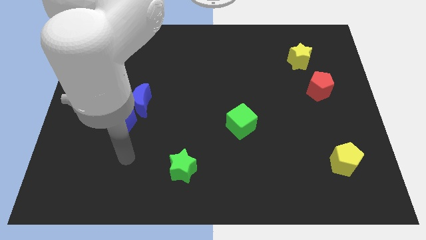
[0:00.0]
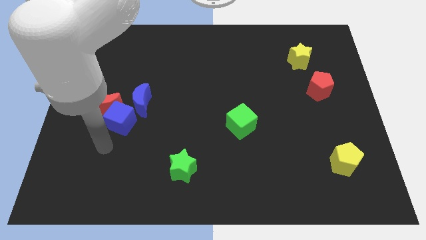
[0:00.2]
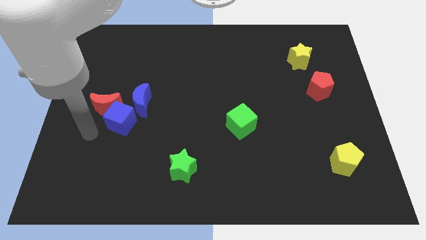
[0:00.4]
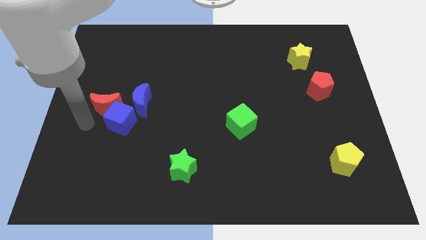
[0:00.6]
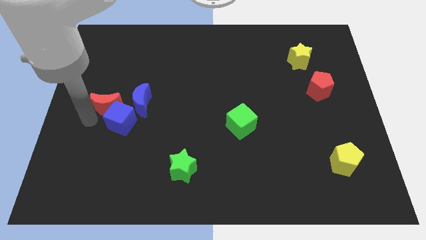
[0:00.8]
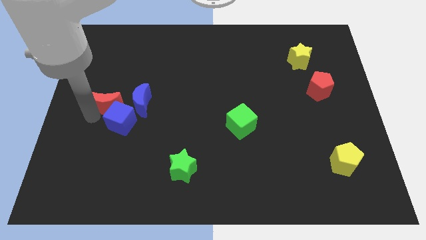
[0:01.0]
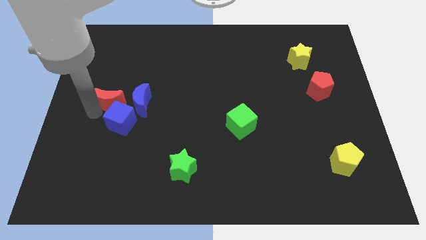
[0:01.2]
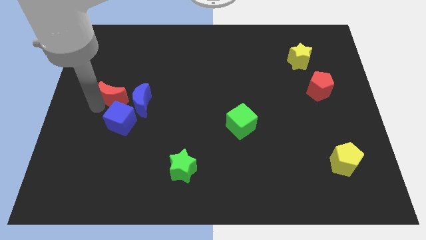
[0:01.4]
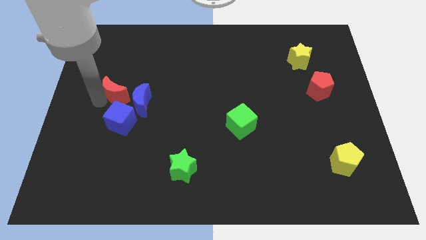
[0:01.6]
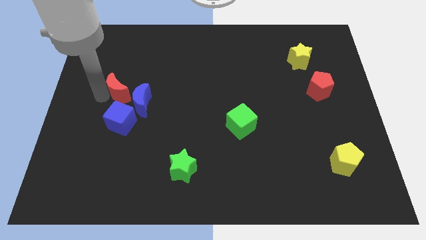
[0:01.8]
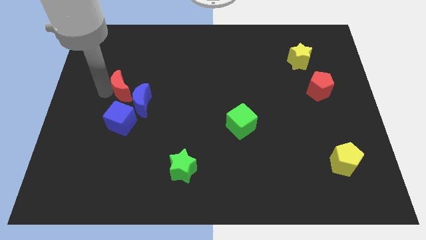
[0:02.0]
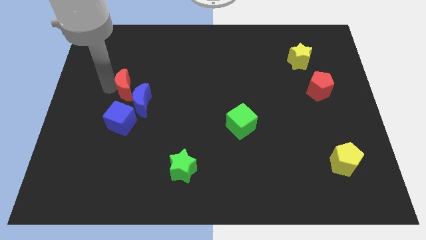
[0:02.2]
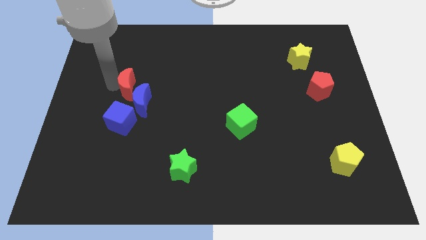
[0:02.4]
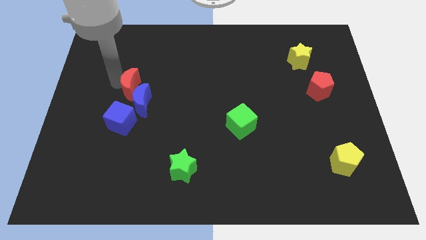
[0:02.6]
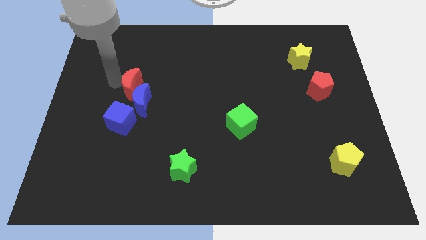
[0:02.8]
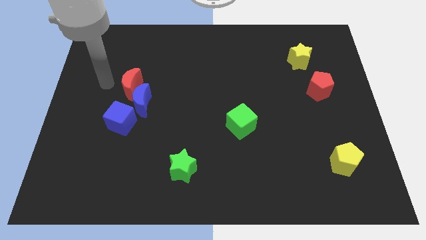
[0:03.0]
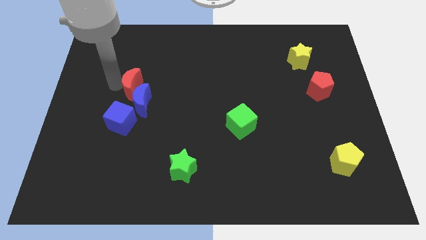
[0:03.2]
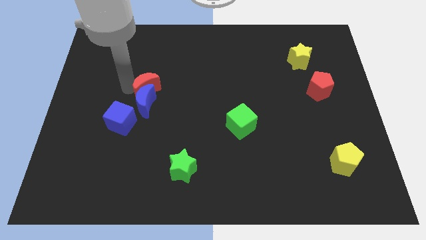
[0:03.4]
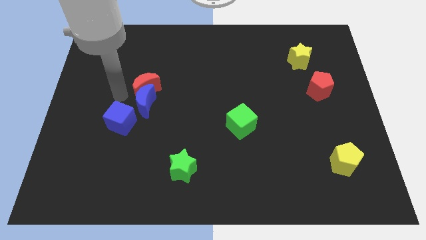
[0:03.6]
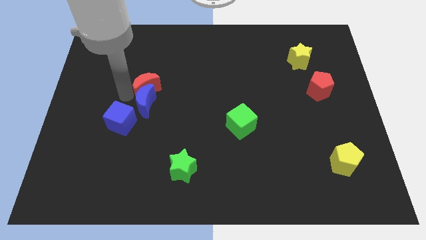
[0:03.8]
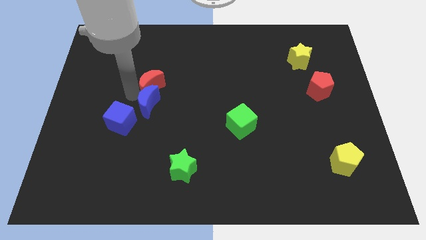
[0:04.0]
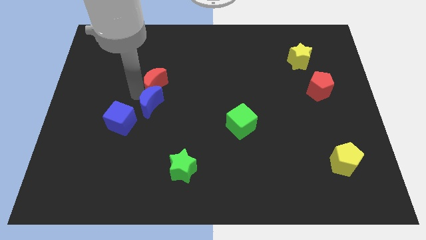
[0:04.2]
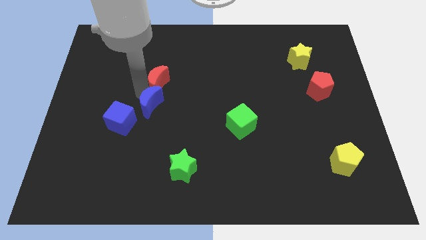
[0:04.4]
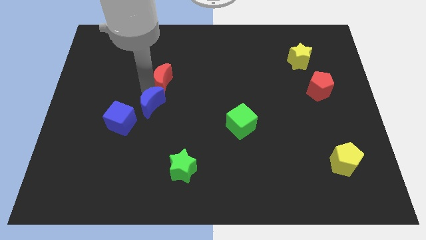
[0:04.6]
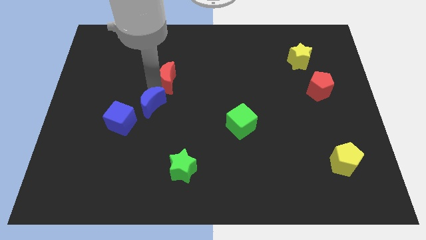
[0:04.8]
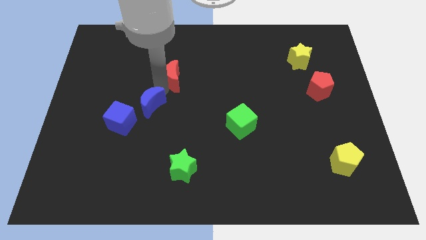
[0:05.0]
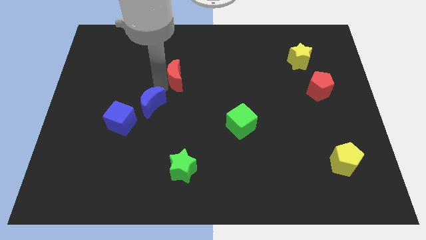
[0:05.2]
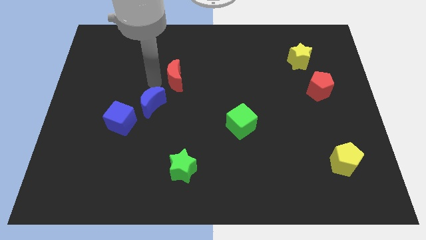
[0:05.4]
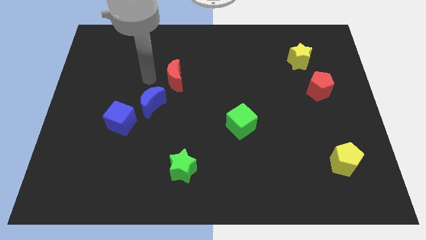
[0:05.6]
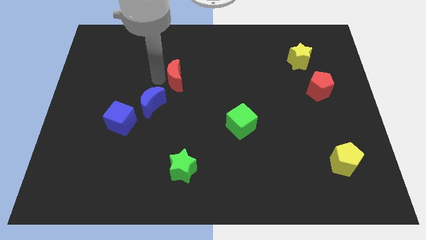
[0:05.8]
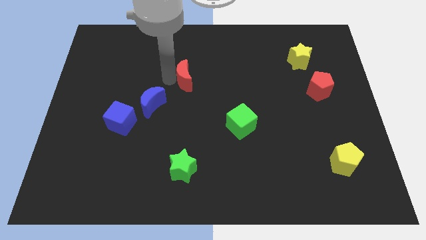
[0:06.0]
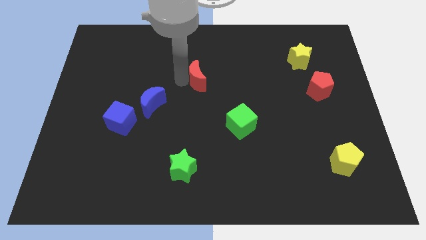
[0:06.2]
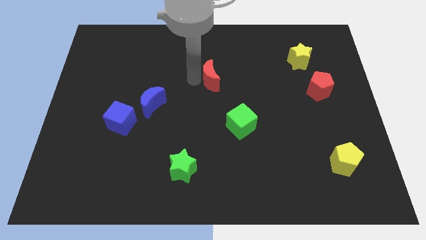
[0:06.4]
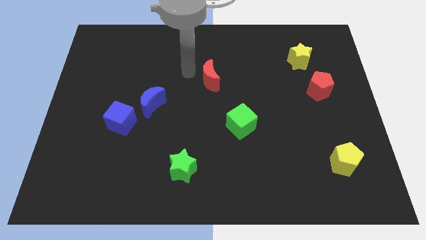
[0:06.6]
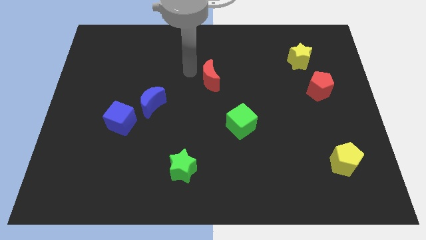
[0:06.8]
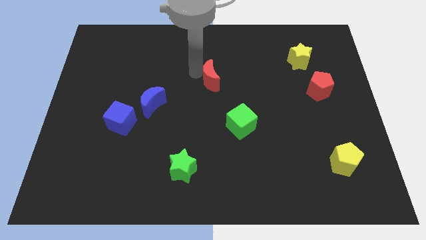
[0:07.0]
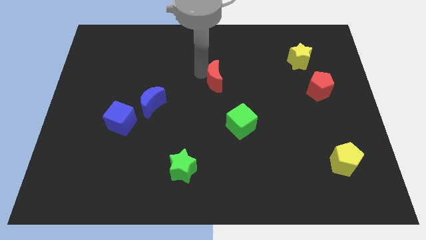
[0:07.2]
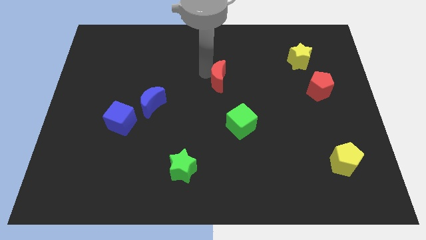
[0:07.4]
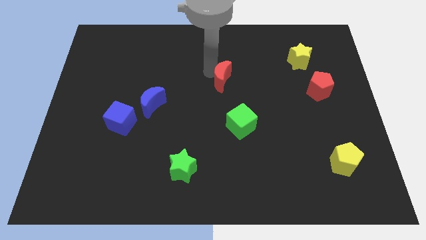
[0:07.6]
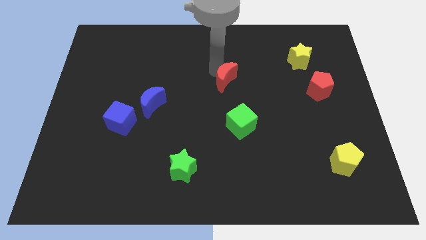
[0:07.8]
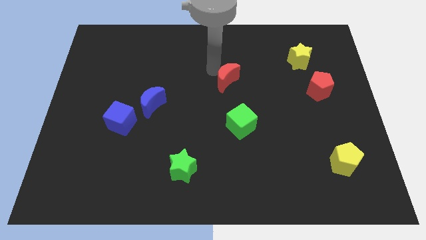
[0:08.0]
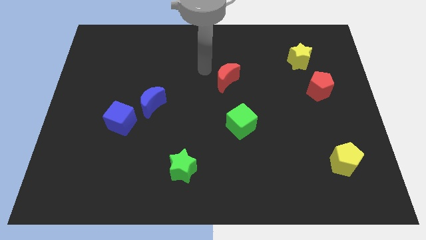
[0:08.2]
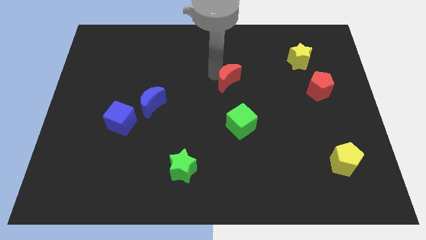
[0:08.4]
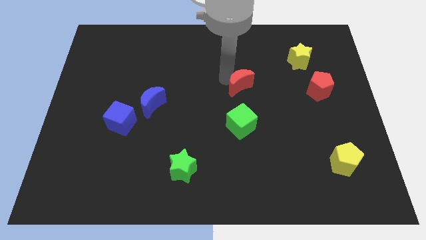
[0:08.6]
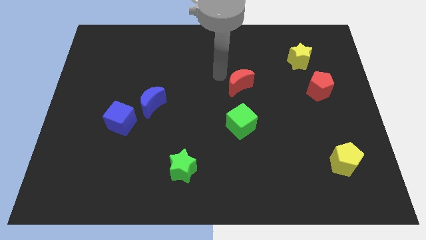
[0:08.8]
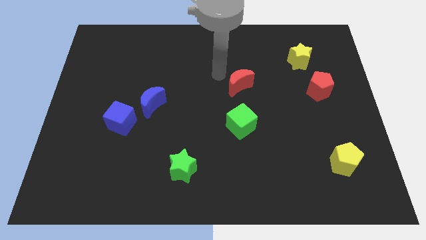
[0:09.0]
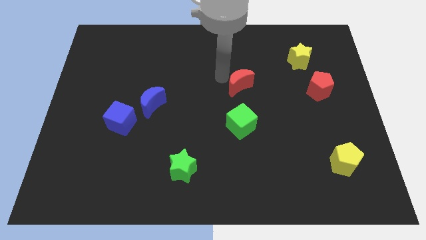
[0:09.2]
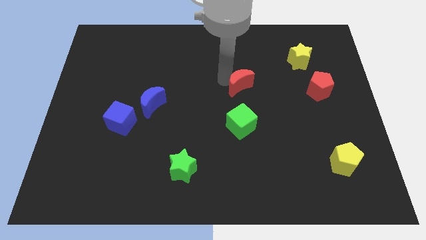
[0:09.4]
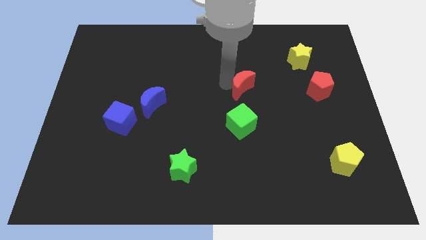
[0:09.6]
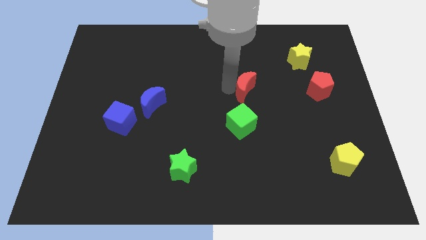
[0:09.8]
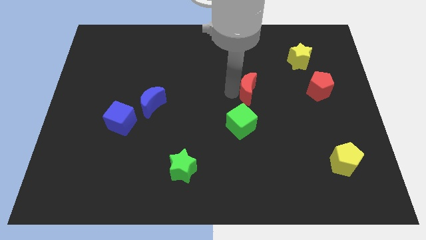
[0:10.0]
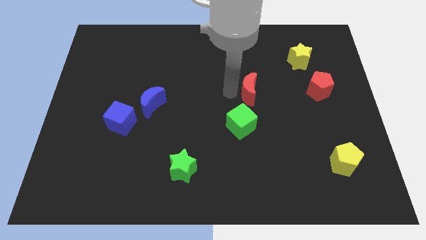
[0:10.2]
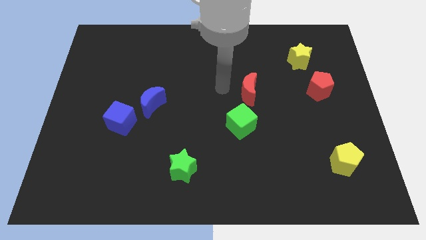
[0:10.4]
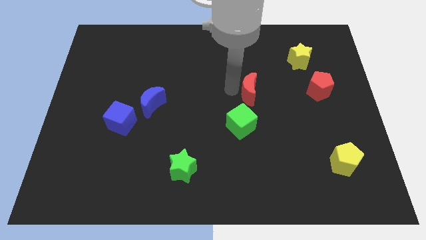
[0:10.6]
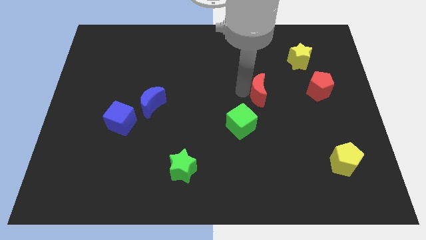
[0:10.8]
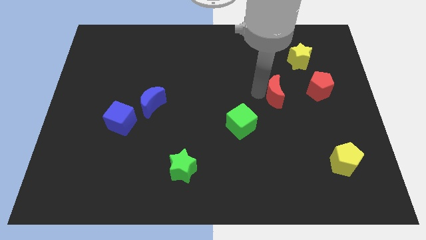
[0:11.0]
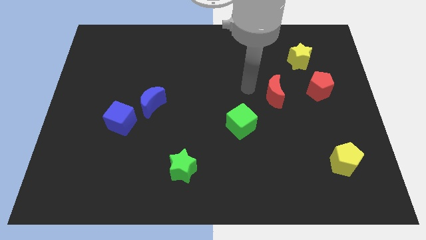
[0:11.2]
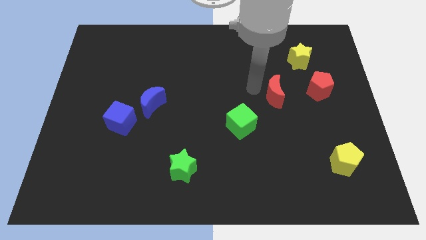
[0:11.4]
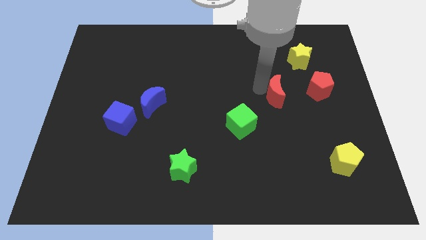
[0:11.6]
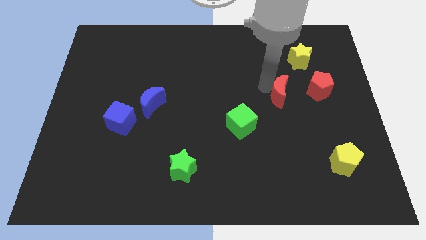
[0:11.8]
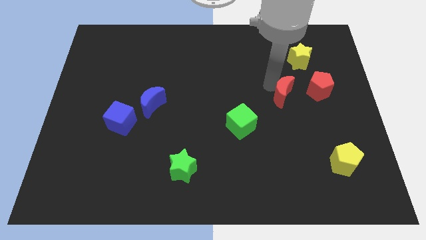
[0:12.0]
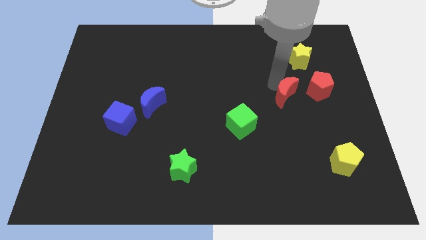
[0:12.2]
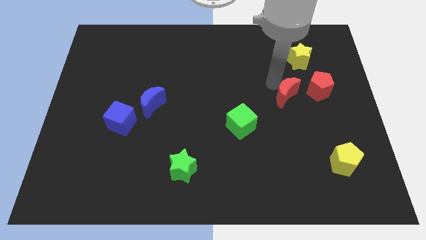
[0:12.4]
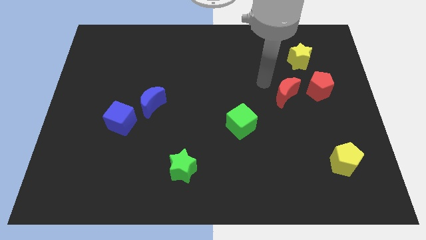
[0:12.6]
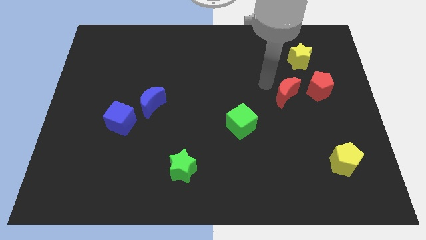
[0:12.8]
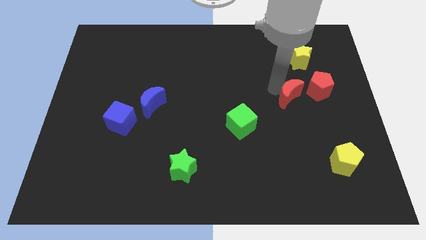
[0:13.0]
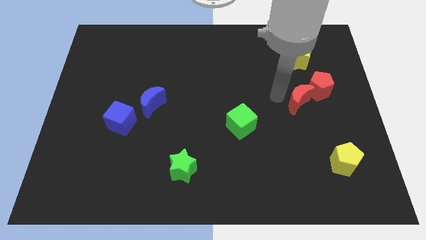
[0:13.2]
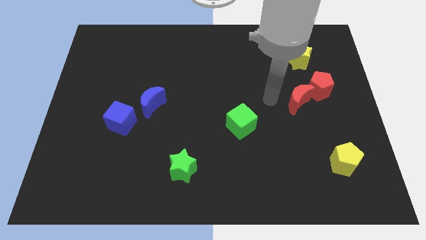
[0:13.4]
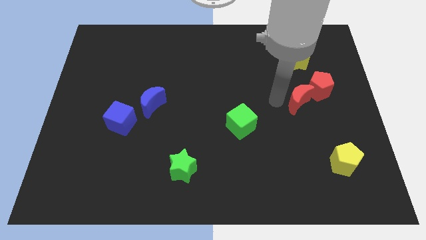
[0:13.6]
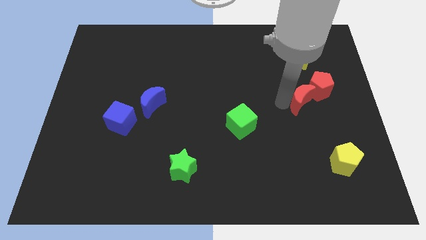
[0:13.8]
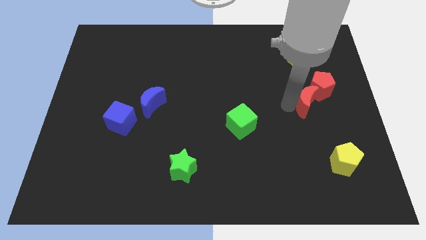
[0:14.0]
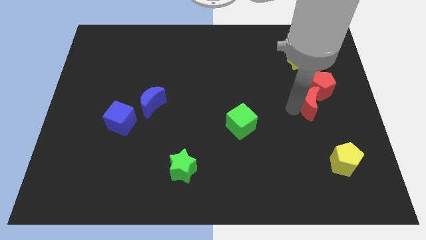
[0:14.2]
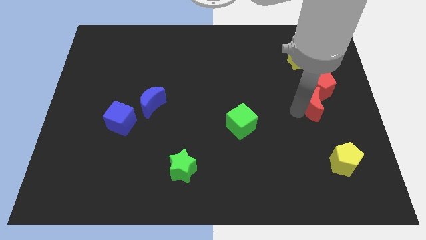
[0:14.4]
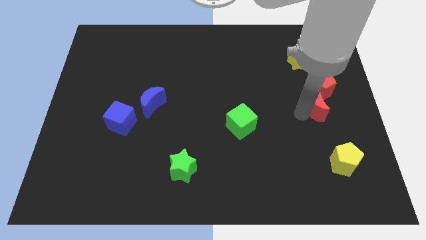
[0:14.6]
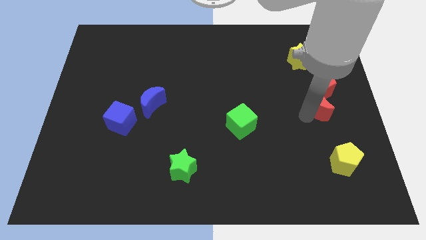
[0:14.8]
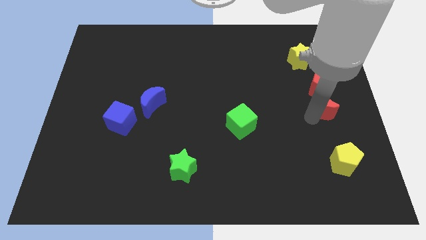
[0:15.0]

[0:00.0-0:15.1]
put the red moon to the right side
